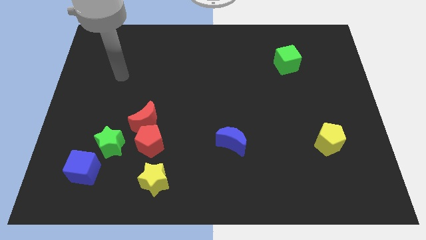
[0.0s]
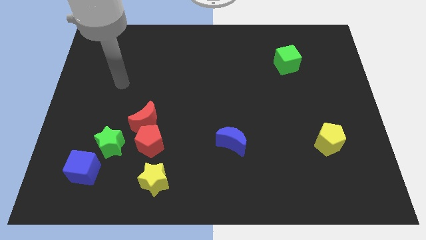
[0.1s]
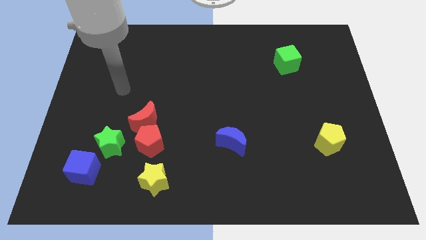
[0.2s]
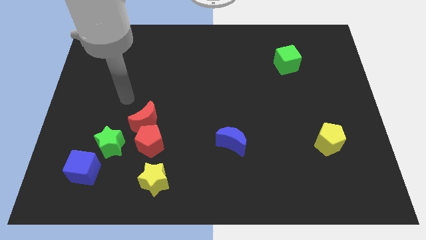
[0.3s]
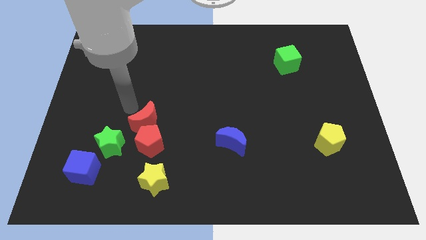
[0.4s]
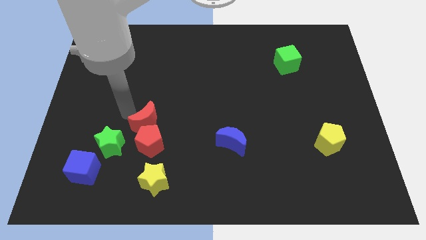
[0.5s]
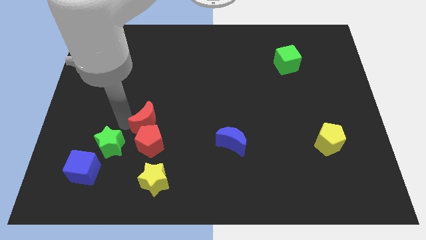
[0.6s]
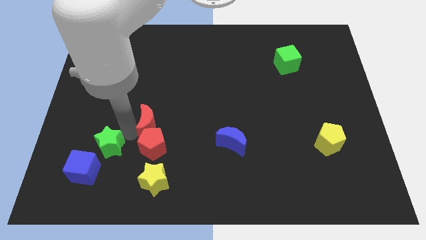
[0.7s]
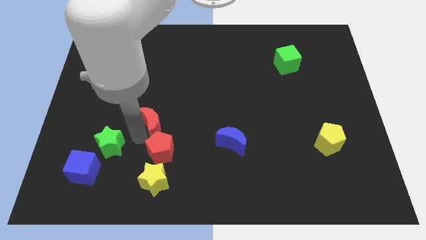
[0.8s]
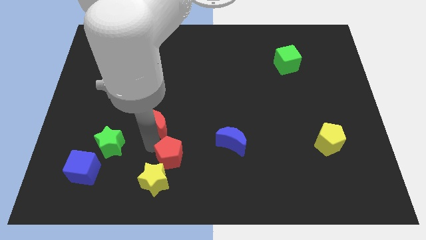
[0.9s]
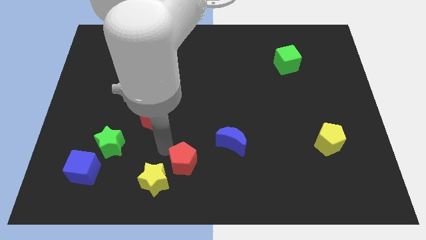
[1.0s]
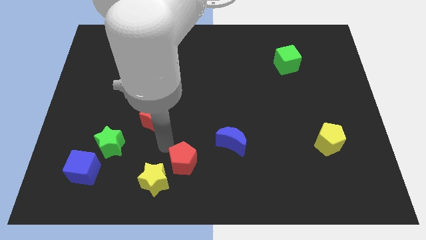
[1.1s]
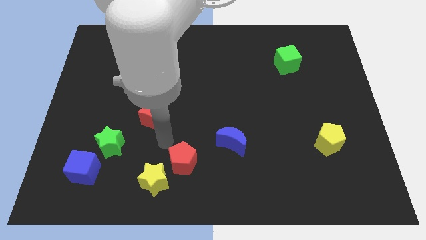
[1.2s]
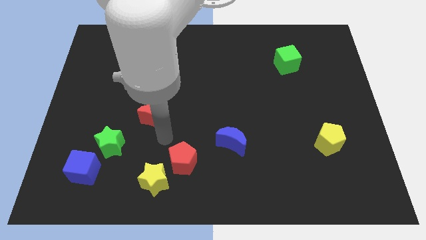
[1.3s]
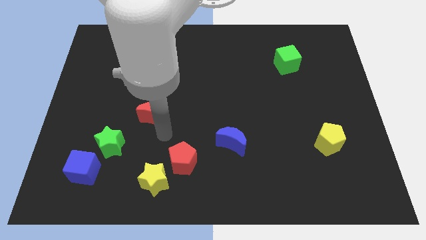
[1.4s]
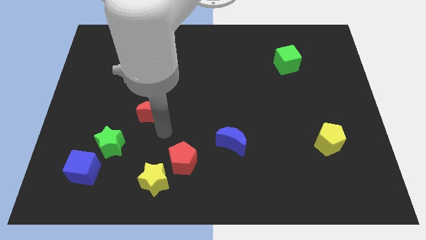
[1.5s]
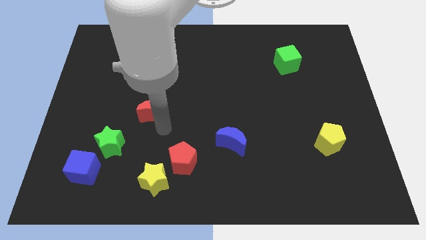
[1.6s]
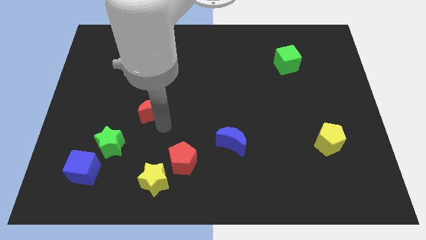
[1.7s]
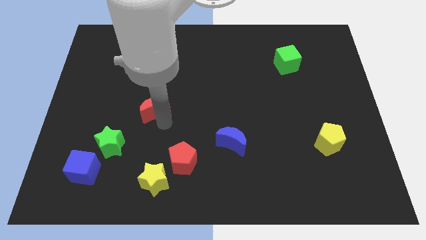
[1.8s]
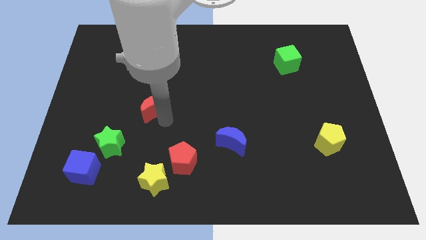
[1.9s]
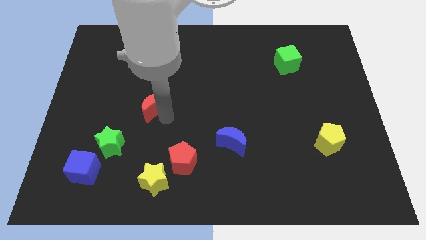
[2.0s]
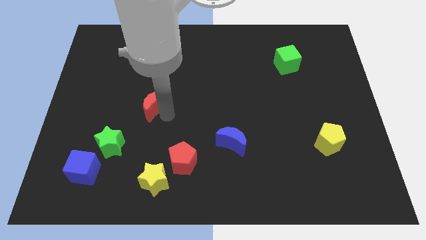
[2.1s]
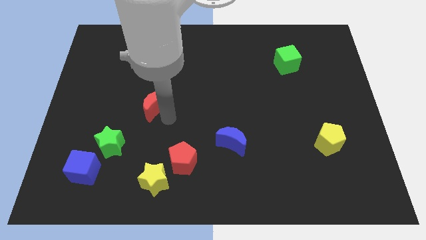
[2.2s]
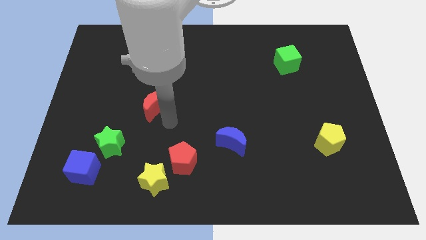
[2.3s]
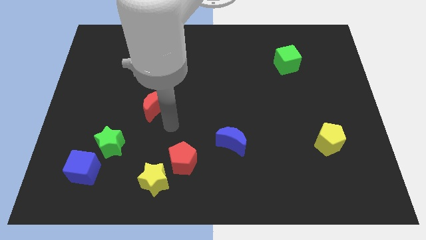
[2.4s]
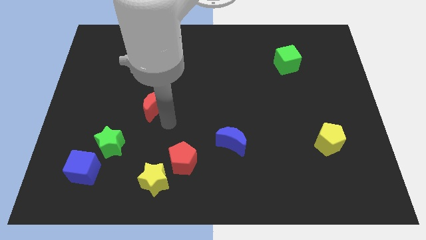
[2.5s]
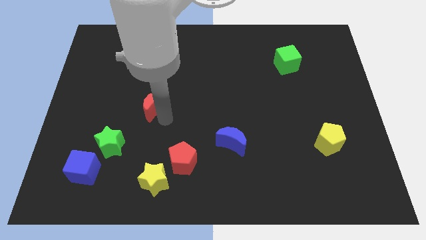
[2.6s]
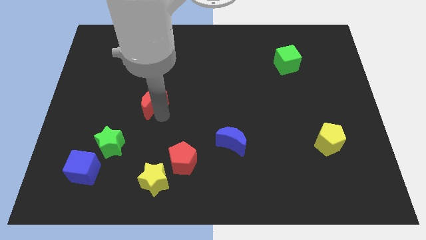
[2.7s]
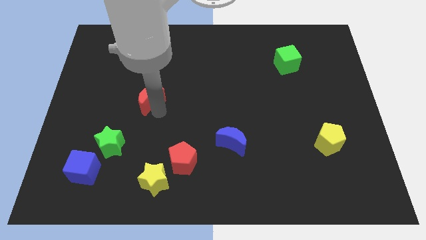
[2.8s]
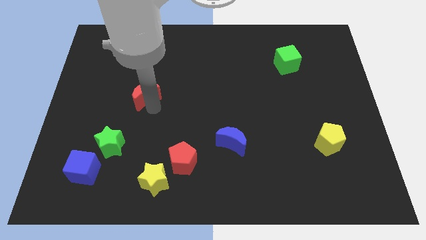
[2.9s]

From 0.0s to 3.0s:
slightly slide the red moon upwards

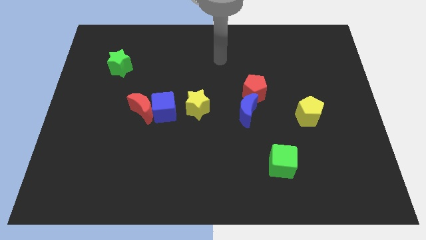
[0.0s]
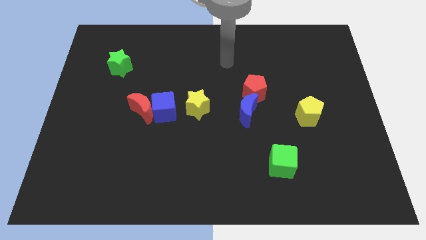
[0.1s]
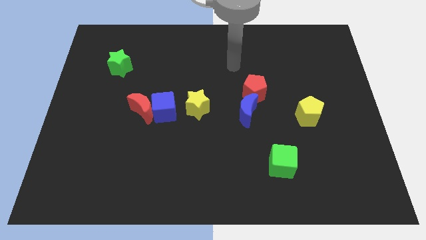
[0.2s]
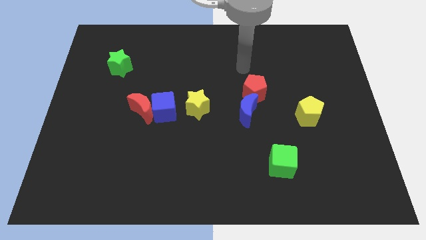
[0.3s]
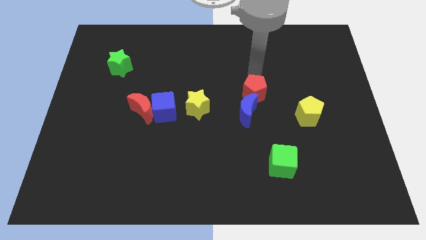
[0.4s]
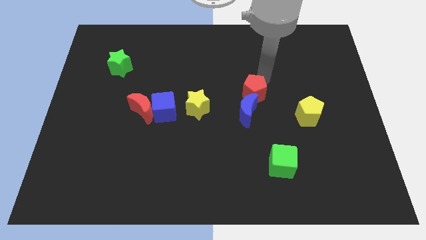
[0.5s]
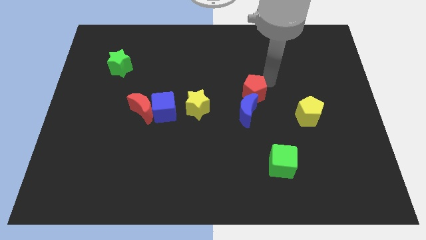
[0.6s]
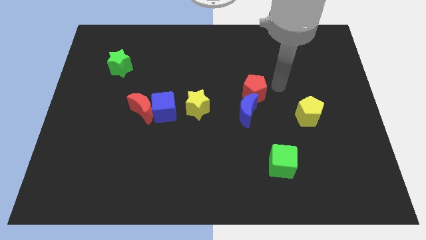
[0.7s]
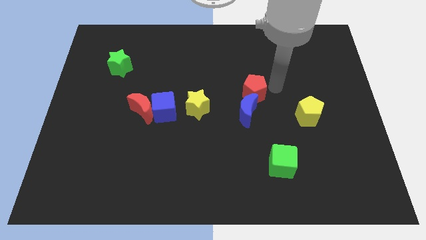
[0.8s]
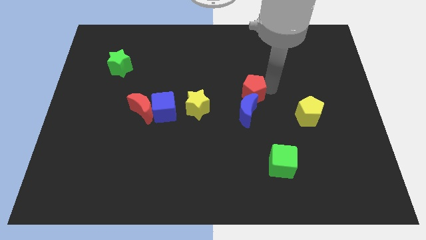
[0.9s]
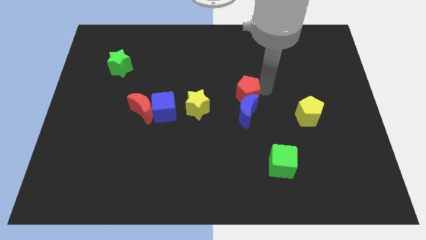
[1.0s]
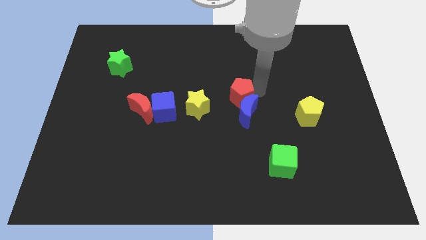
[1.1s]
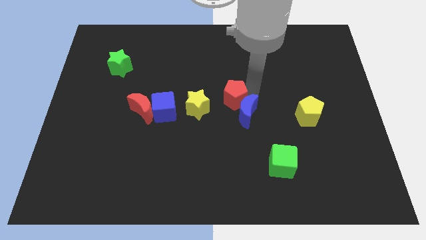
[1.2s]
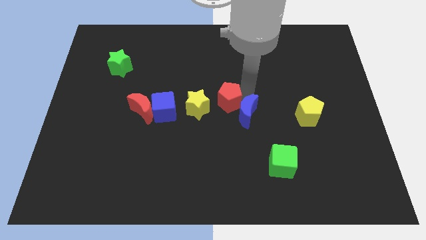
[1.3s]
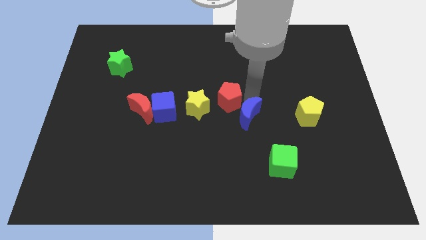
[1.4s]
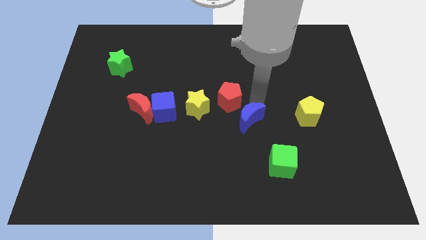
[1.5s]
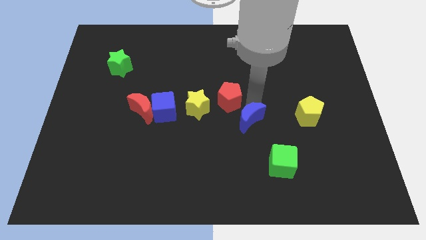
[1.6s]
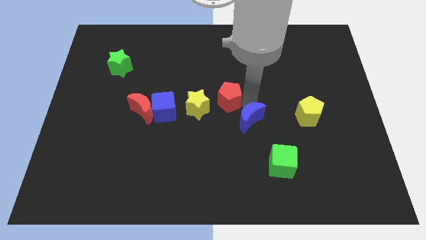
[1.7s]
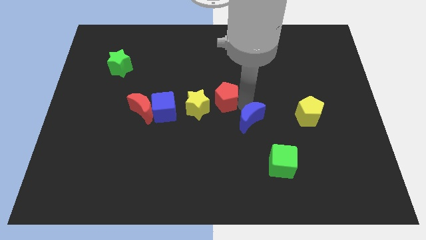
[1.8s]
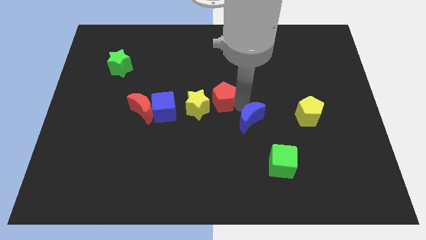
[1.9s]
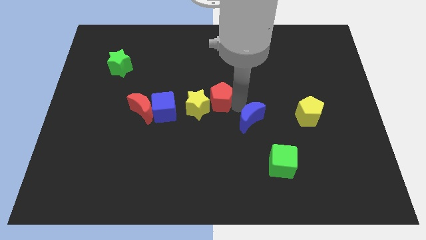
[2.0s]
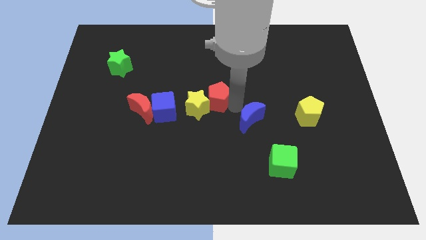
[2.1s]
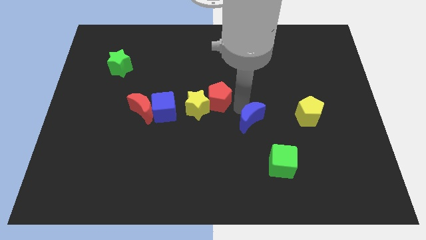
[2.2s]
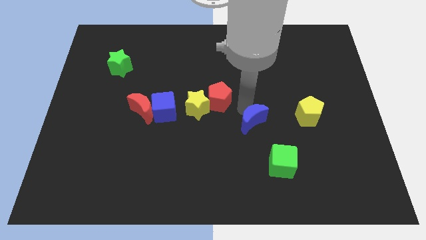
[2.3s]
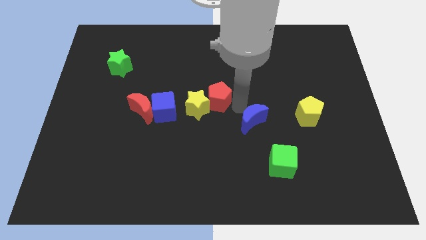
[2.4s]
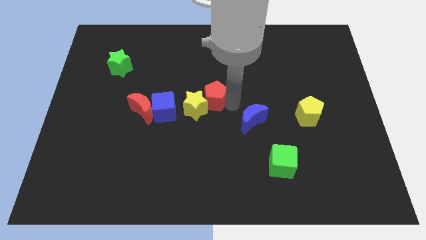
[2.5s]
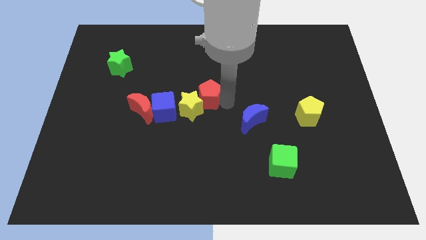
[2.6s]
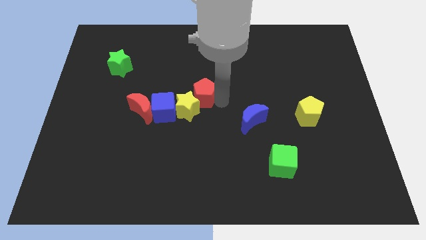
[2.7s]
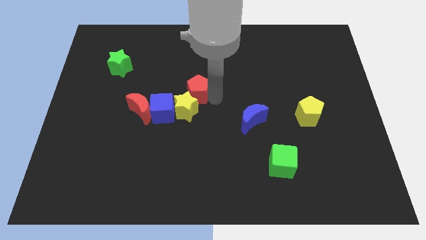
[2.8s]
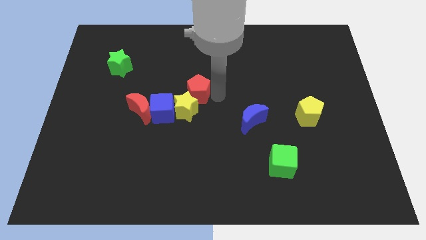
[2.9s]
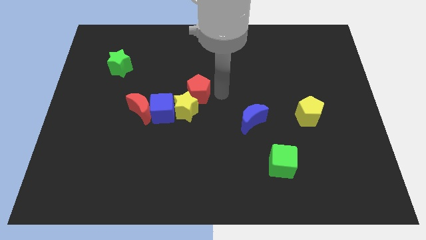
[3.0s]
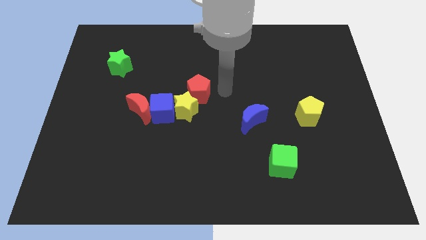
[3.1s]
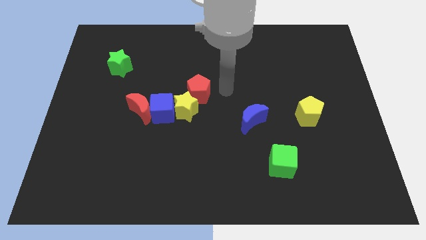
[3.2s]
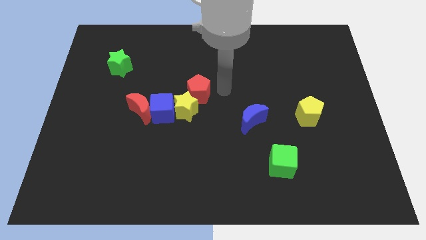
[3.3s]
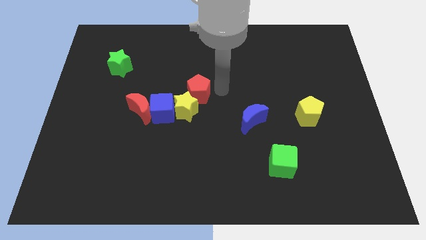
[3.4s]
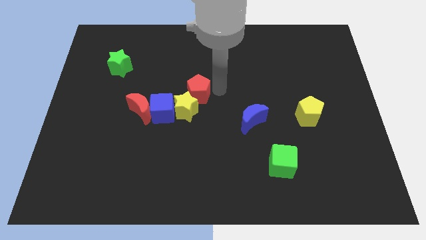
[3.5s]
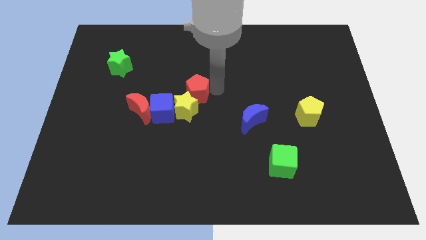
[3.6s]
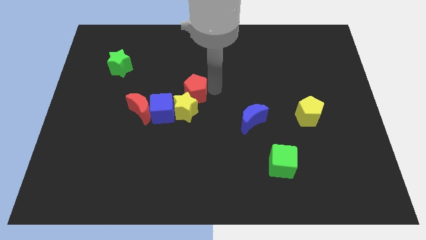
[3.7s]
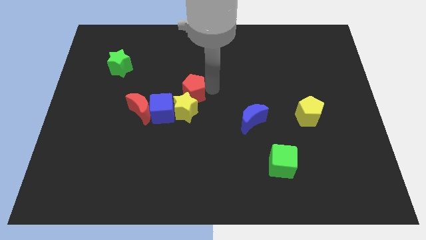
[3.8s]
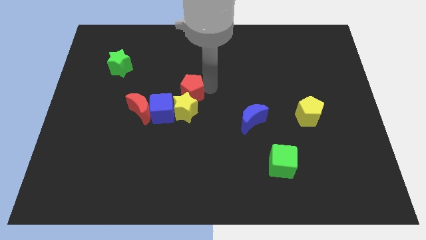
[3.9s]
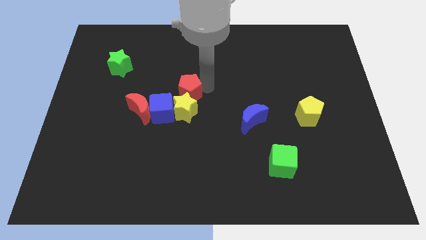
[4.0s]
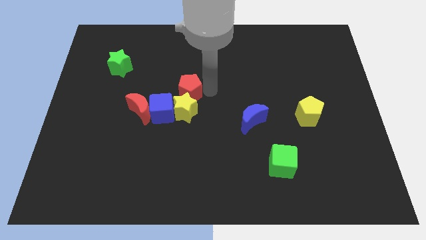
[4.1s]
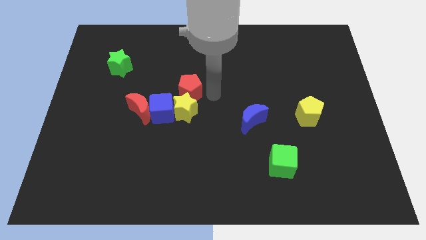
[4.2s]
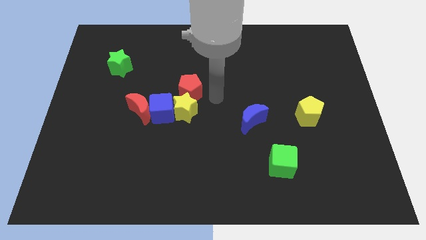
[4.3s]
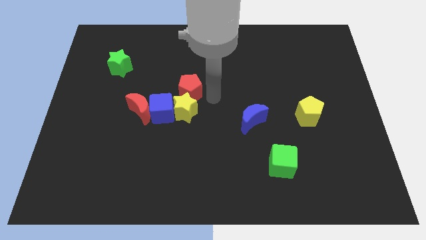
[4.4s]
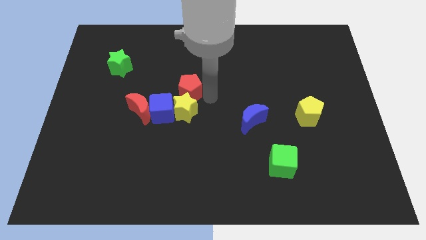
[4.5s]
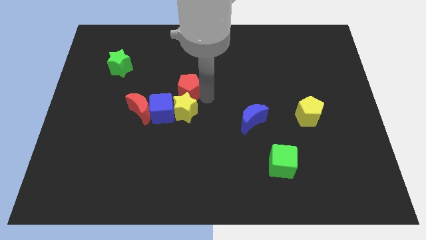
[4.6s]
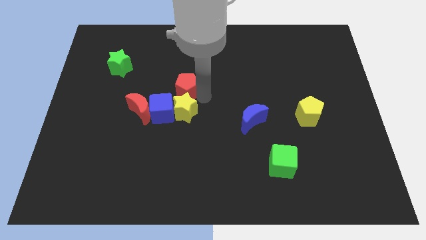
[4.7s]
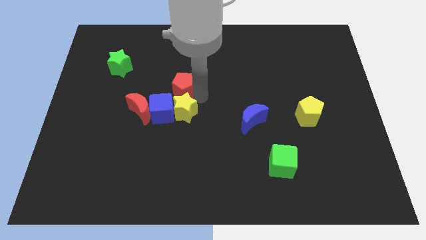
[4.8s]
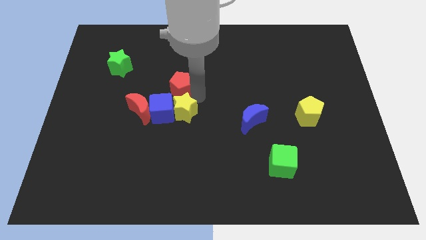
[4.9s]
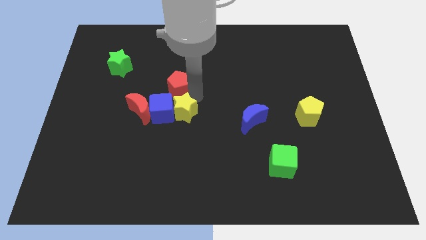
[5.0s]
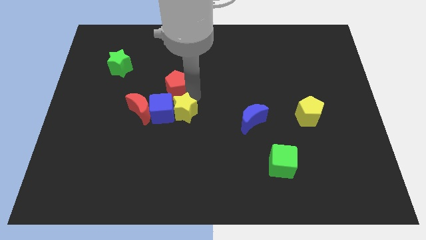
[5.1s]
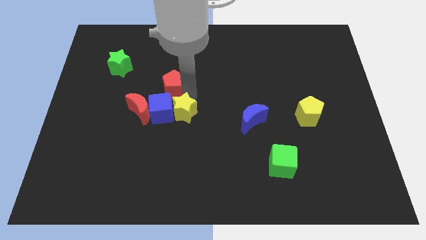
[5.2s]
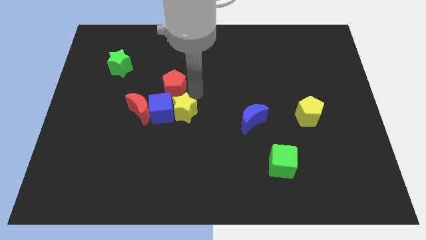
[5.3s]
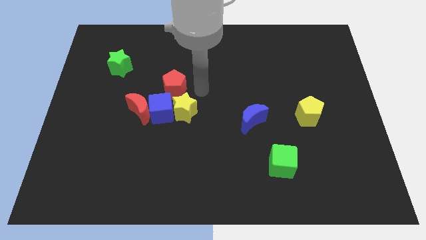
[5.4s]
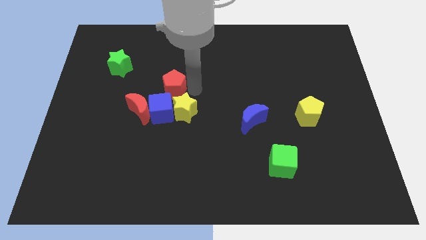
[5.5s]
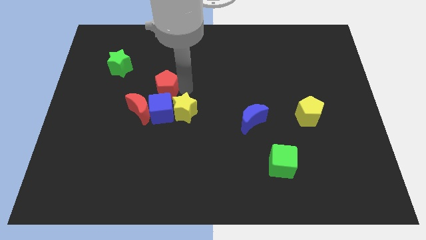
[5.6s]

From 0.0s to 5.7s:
move the red pentagon left
